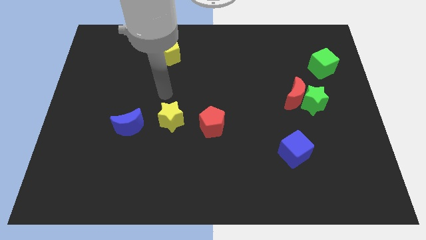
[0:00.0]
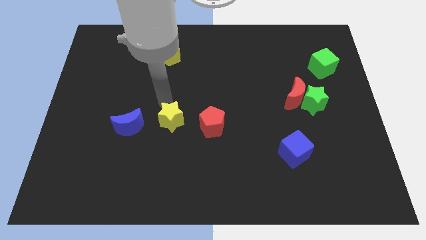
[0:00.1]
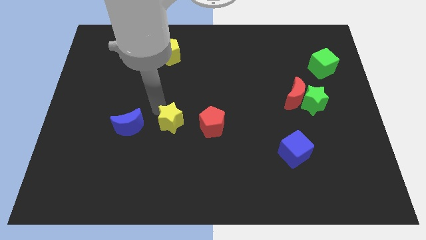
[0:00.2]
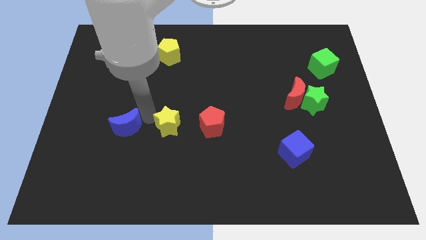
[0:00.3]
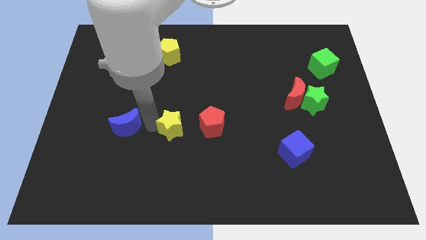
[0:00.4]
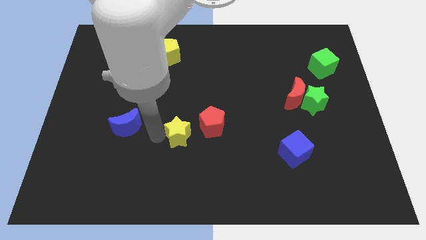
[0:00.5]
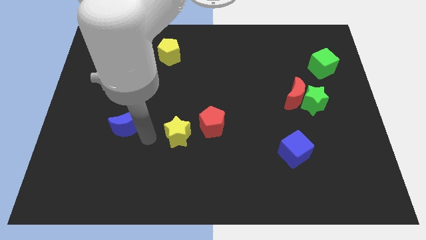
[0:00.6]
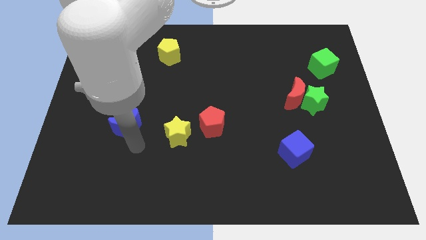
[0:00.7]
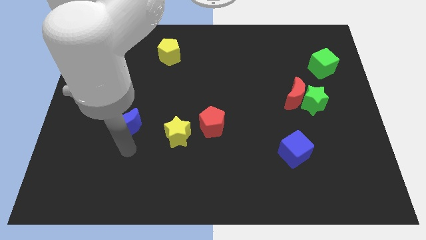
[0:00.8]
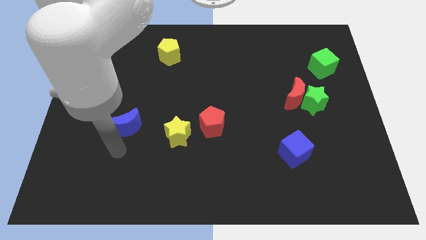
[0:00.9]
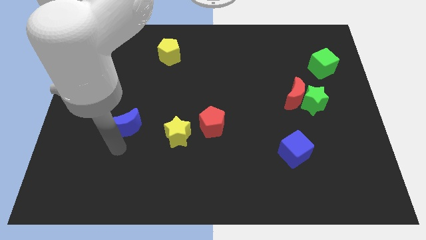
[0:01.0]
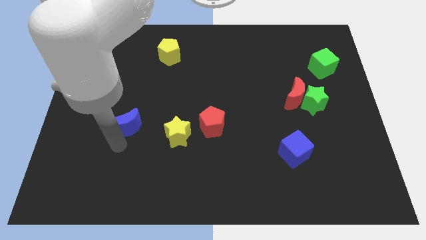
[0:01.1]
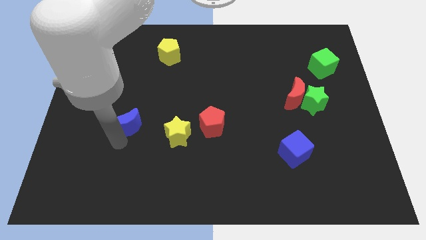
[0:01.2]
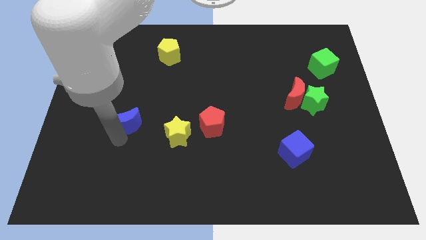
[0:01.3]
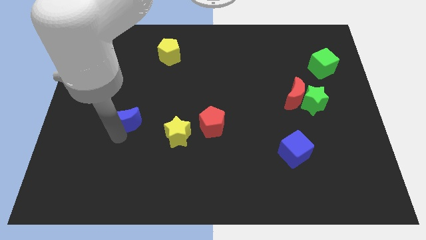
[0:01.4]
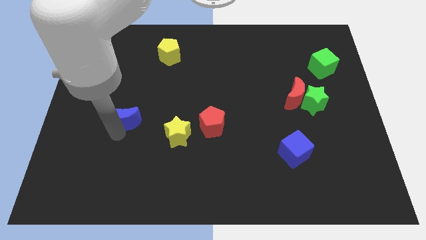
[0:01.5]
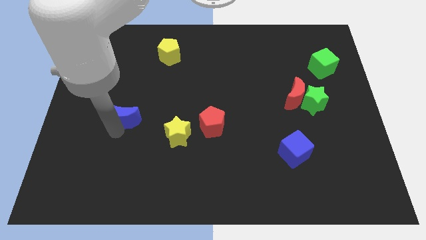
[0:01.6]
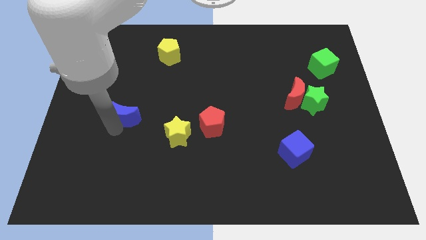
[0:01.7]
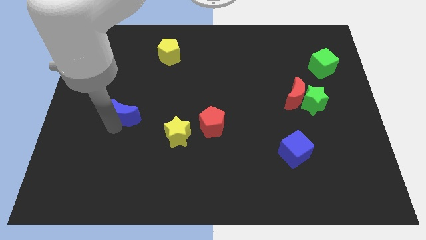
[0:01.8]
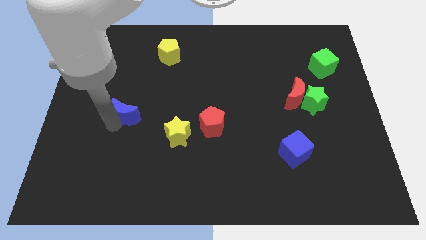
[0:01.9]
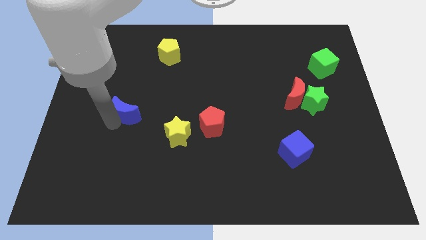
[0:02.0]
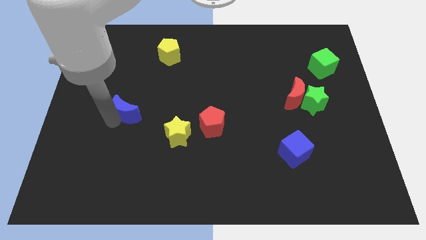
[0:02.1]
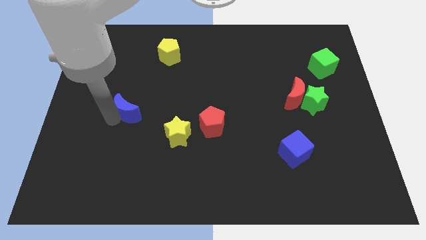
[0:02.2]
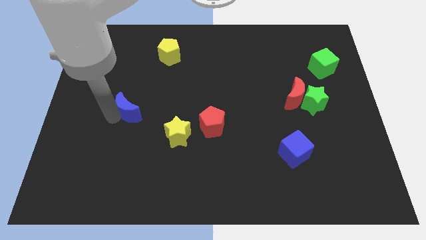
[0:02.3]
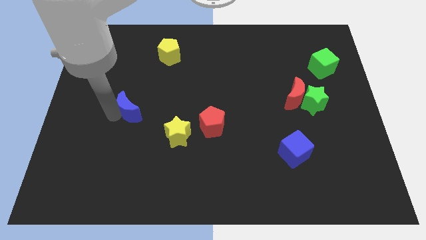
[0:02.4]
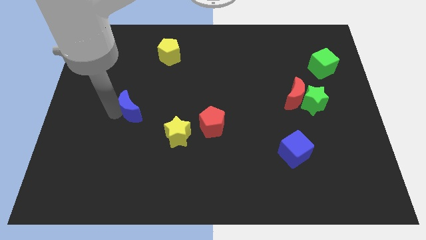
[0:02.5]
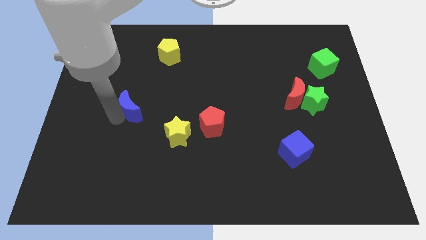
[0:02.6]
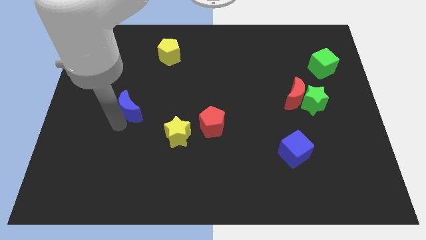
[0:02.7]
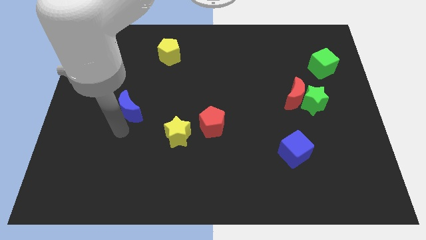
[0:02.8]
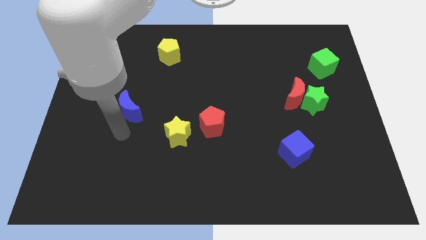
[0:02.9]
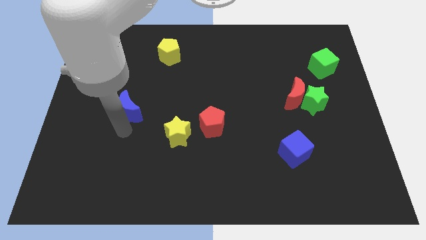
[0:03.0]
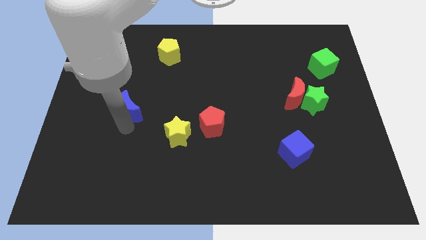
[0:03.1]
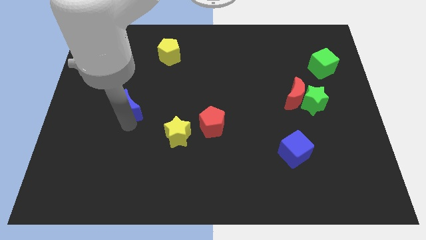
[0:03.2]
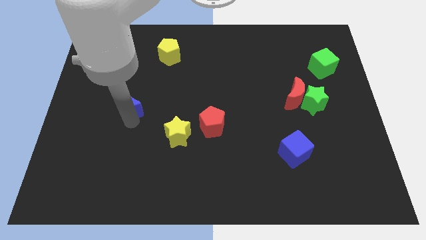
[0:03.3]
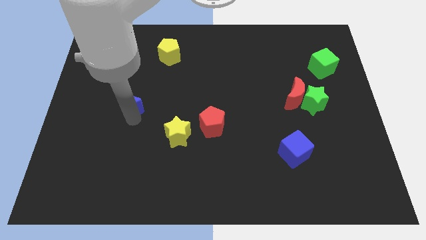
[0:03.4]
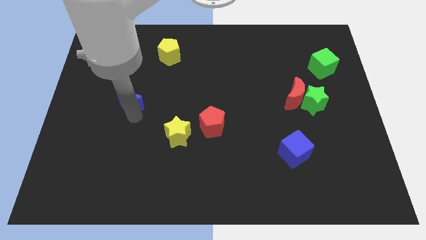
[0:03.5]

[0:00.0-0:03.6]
slide the blue moon a bit up

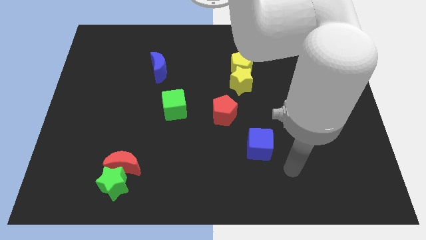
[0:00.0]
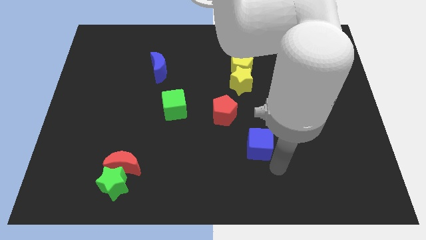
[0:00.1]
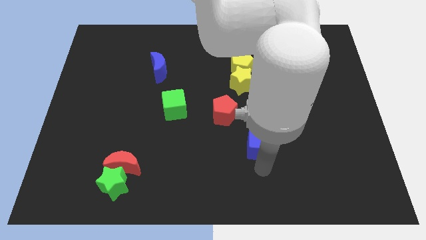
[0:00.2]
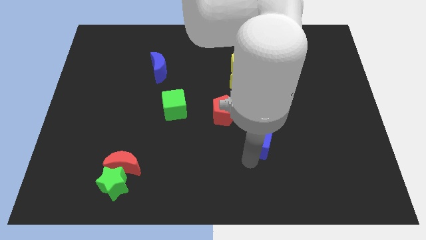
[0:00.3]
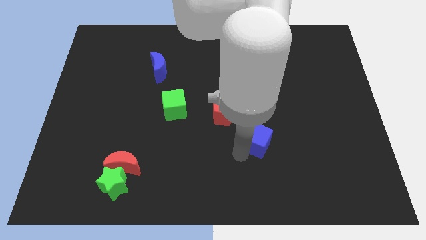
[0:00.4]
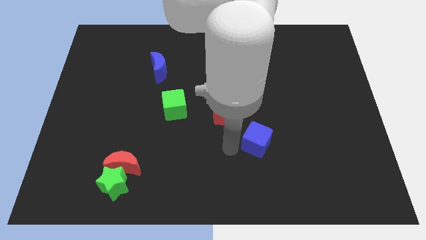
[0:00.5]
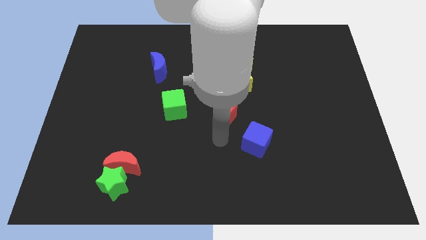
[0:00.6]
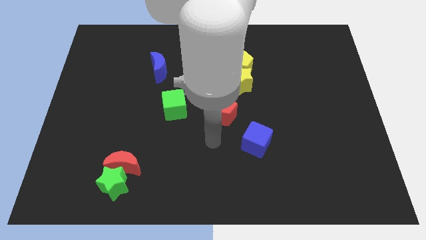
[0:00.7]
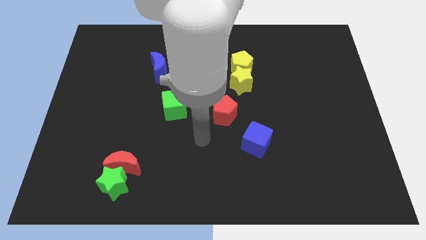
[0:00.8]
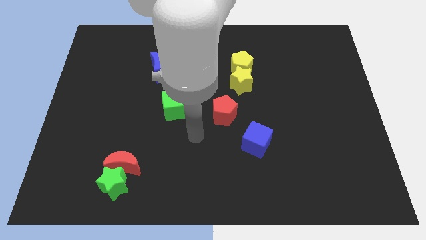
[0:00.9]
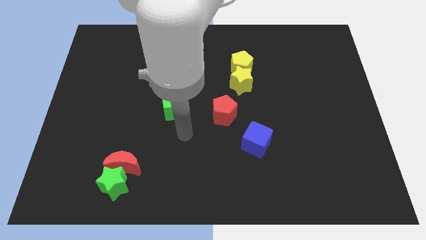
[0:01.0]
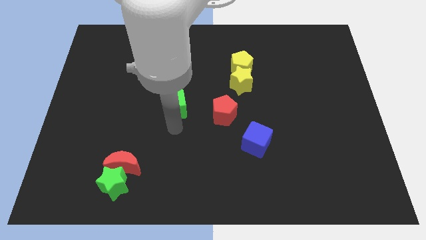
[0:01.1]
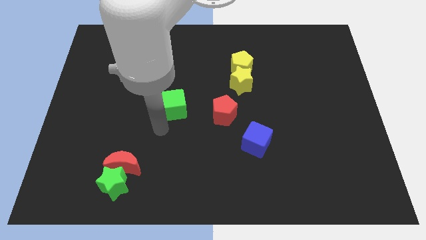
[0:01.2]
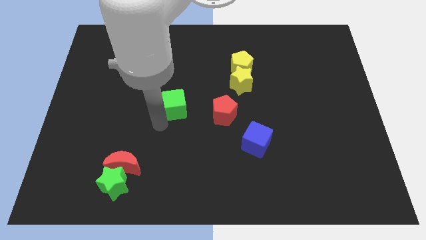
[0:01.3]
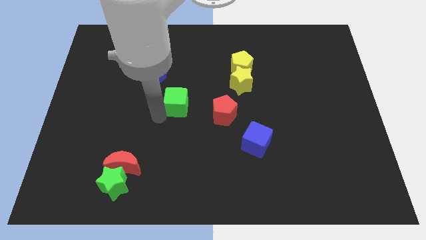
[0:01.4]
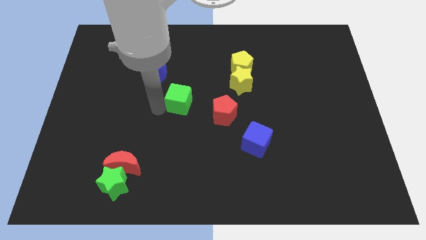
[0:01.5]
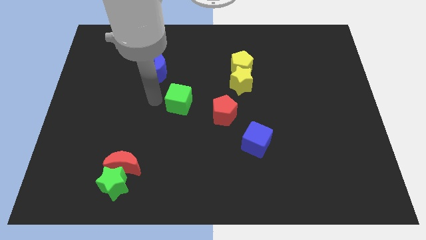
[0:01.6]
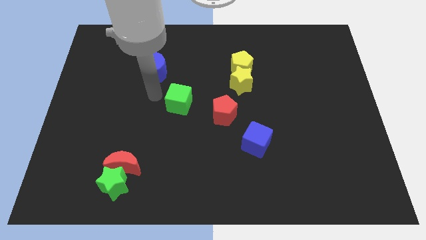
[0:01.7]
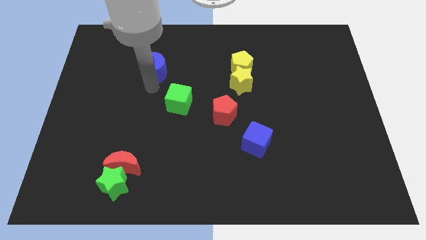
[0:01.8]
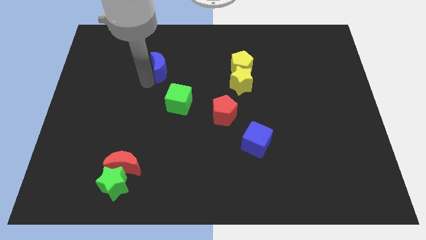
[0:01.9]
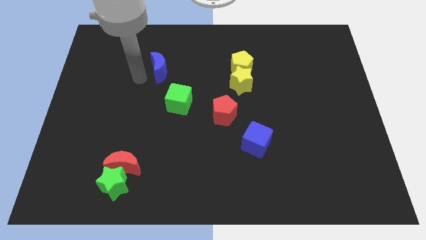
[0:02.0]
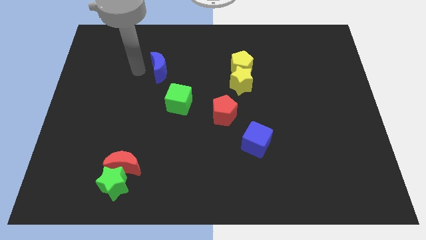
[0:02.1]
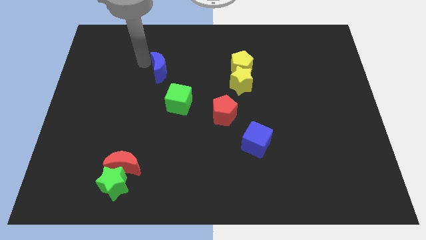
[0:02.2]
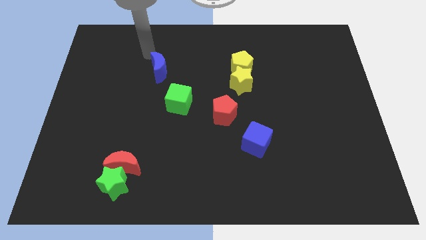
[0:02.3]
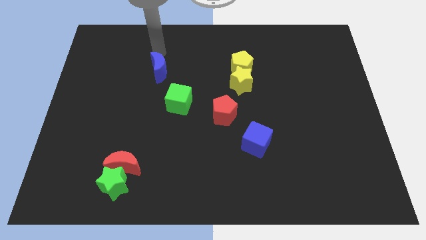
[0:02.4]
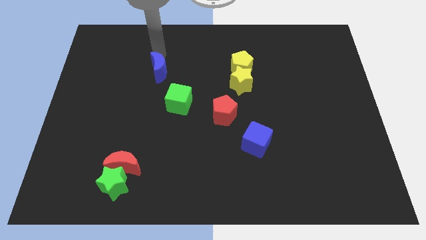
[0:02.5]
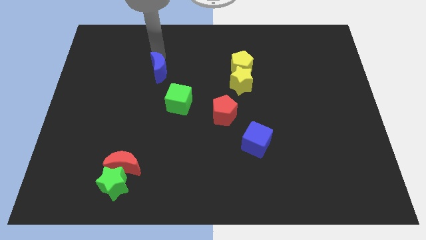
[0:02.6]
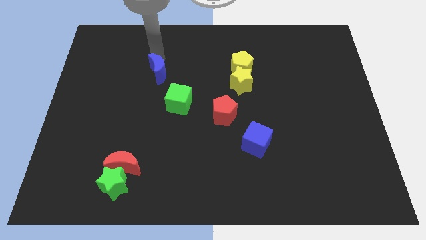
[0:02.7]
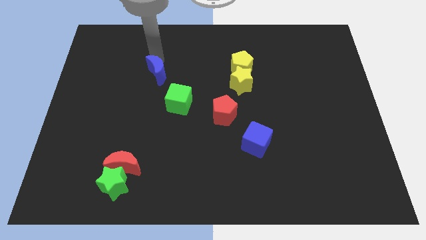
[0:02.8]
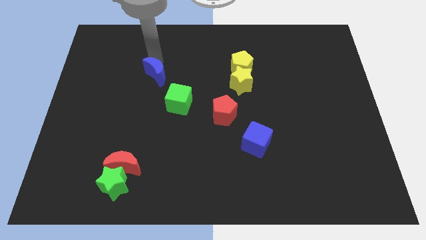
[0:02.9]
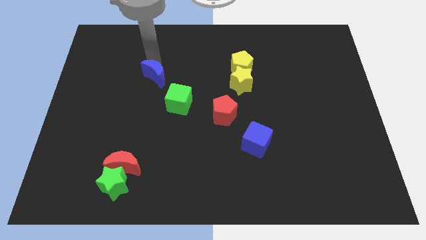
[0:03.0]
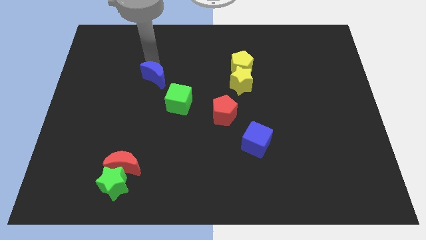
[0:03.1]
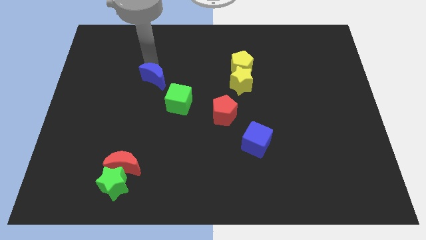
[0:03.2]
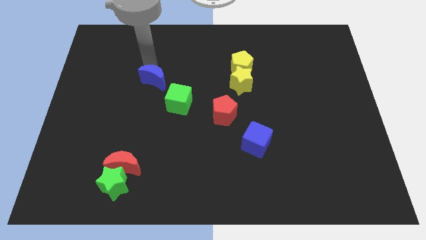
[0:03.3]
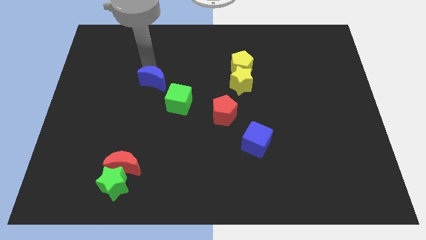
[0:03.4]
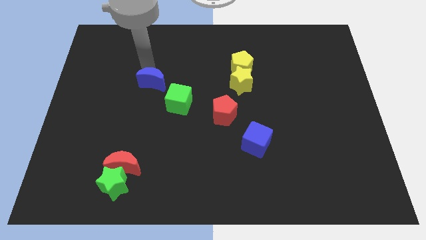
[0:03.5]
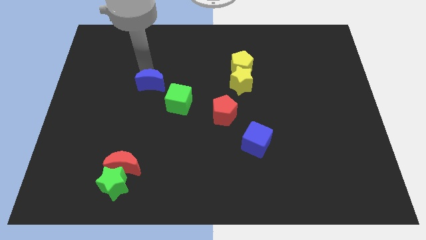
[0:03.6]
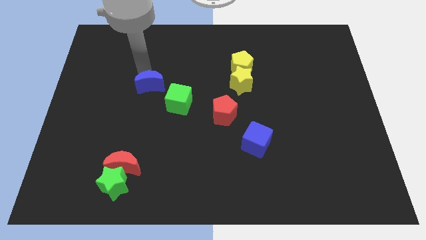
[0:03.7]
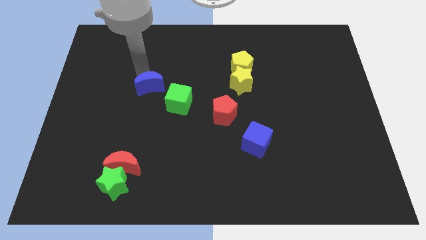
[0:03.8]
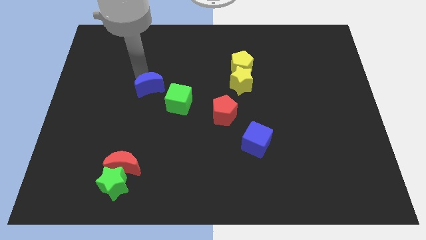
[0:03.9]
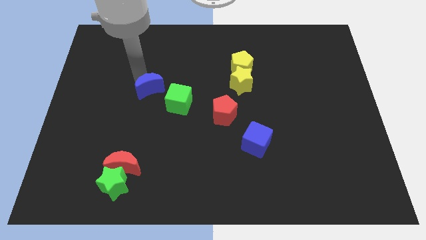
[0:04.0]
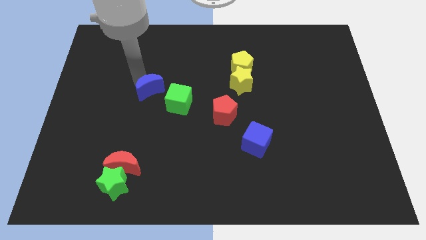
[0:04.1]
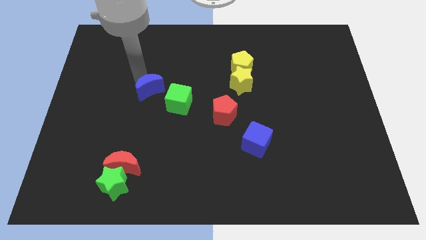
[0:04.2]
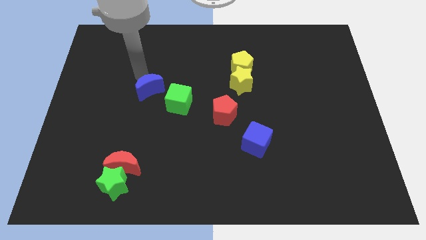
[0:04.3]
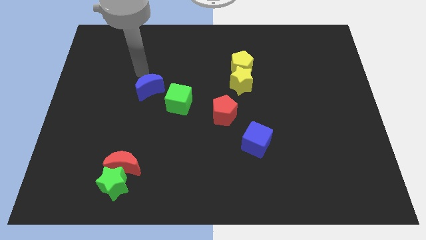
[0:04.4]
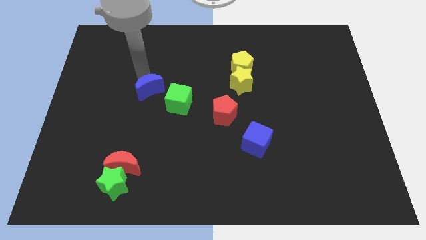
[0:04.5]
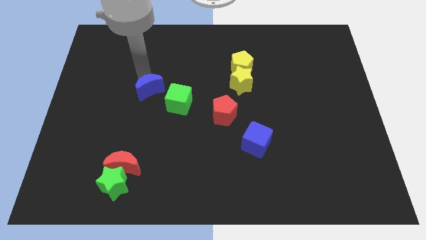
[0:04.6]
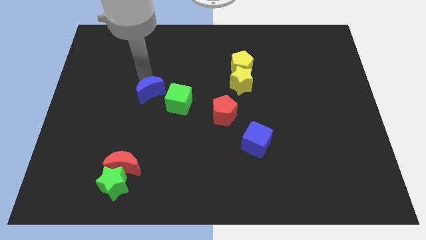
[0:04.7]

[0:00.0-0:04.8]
push the blue moon a bit downwards
